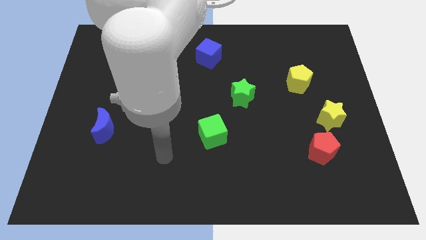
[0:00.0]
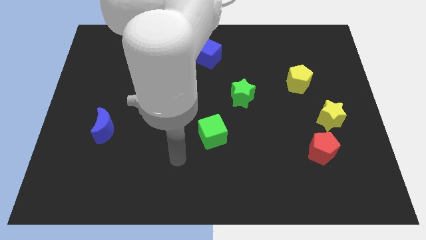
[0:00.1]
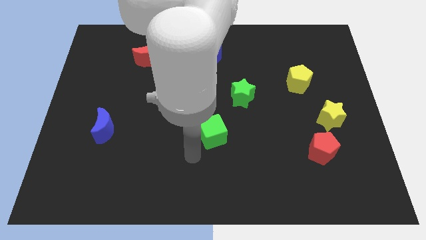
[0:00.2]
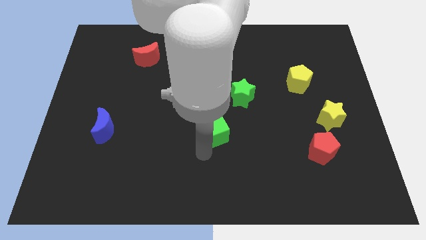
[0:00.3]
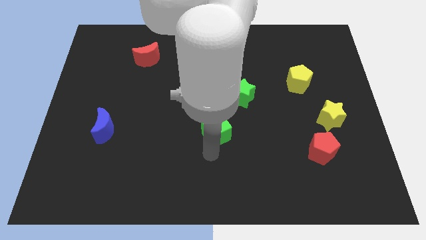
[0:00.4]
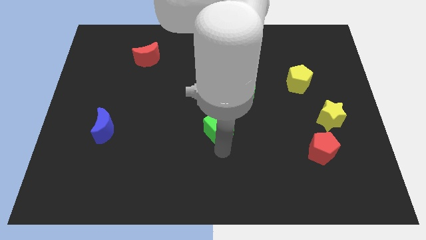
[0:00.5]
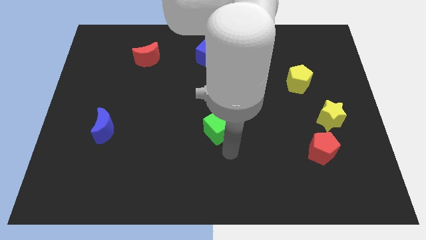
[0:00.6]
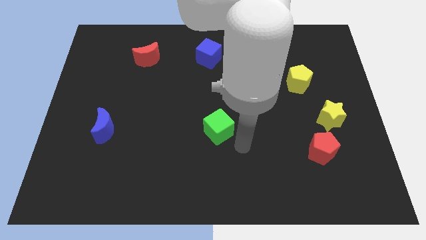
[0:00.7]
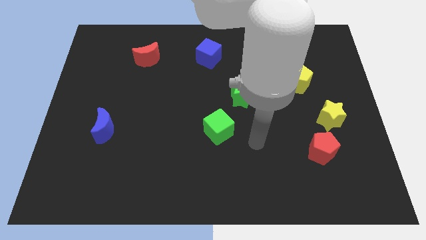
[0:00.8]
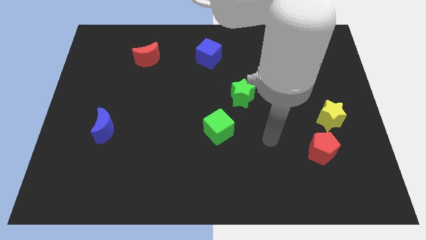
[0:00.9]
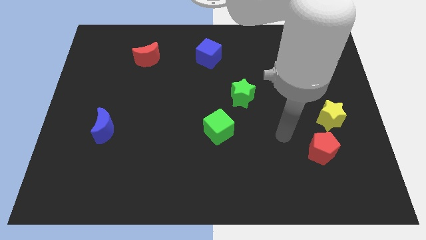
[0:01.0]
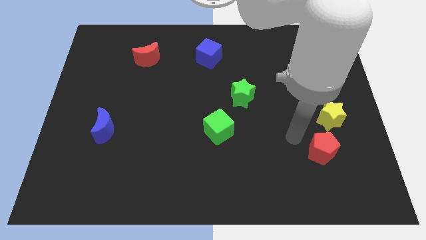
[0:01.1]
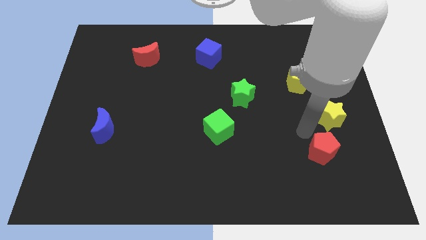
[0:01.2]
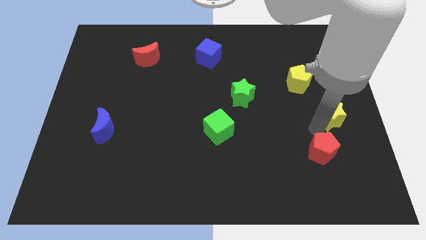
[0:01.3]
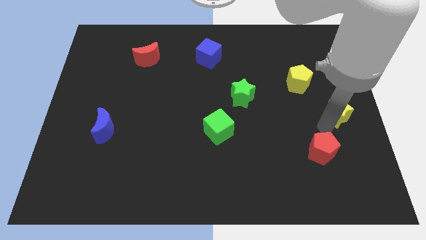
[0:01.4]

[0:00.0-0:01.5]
separate the red pentagon from the yellow star

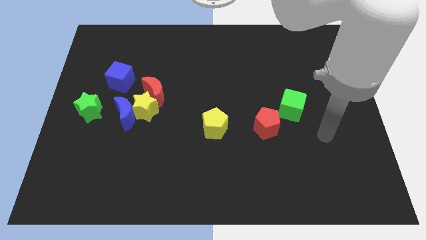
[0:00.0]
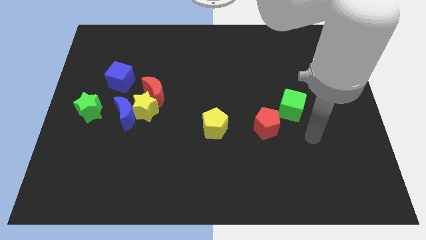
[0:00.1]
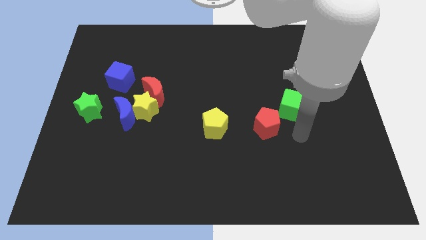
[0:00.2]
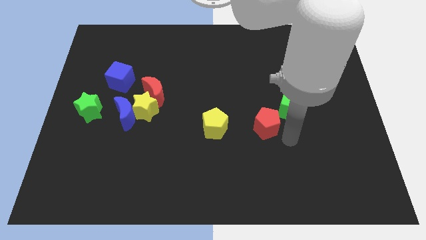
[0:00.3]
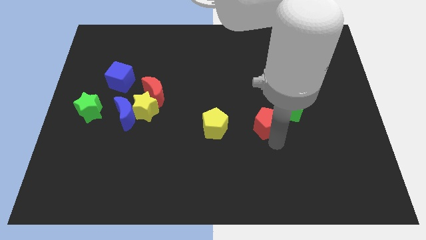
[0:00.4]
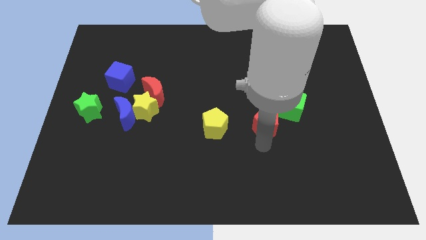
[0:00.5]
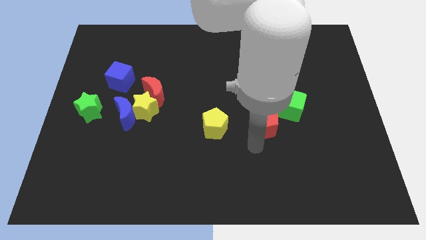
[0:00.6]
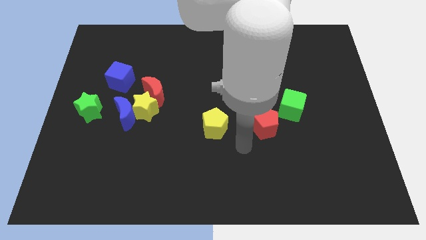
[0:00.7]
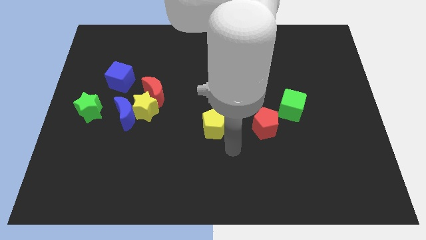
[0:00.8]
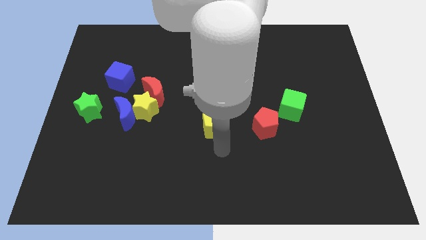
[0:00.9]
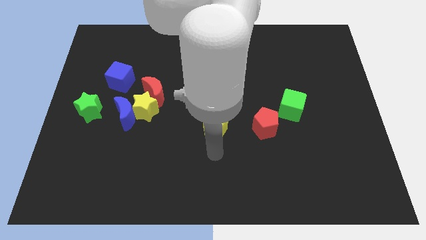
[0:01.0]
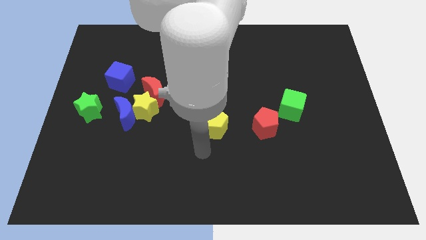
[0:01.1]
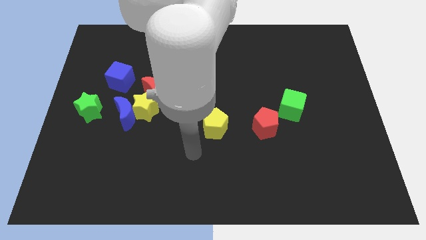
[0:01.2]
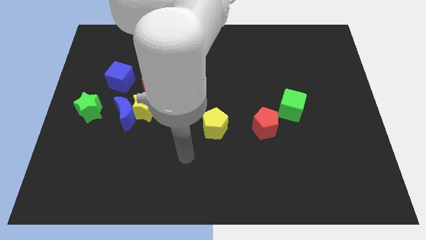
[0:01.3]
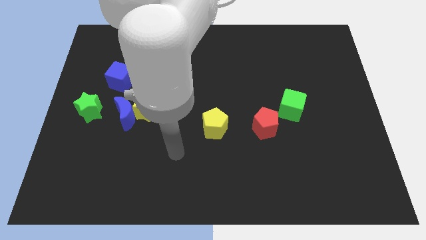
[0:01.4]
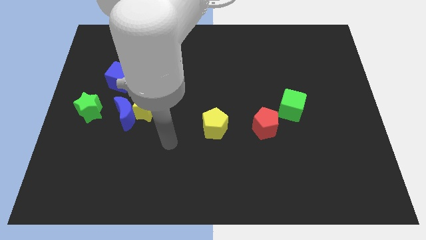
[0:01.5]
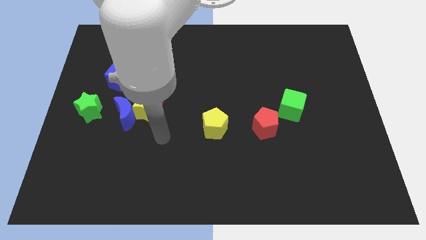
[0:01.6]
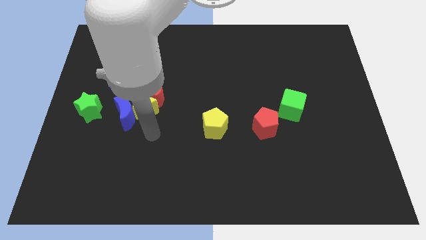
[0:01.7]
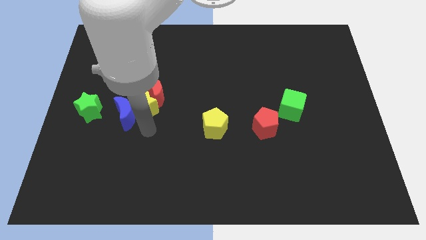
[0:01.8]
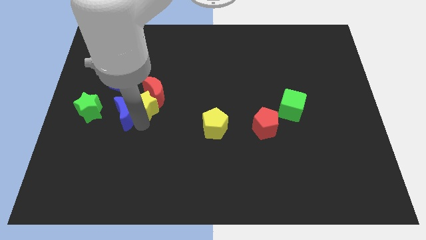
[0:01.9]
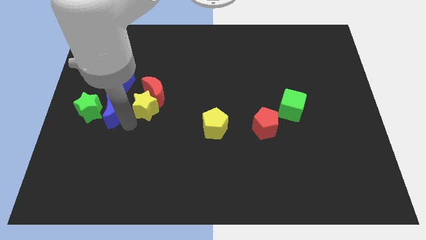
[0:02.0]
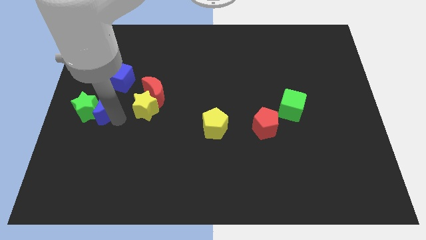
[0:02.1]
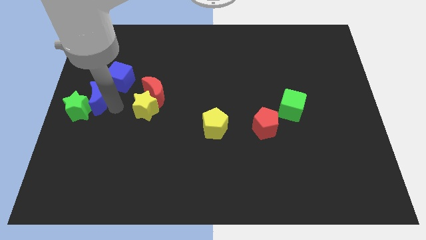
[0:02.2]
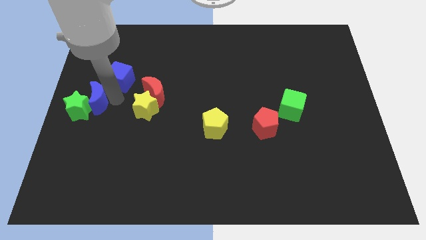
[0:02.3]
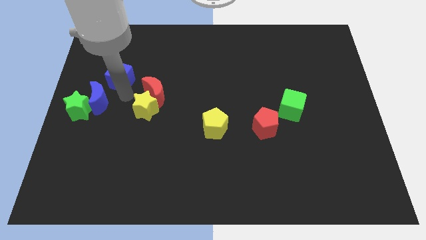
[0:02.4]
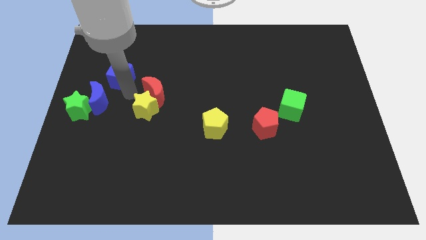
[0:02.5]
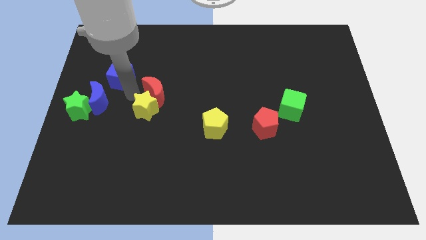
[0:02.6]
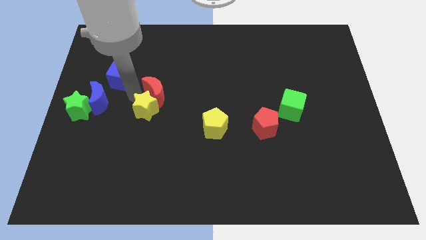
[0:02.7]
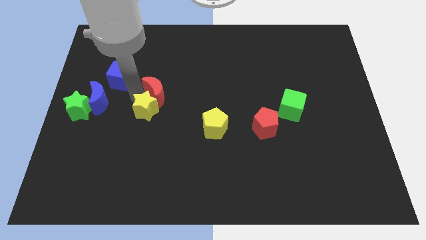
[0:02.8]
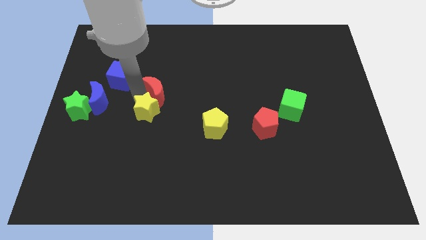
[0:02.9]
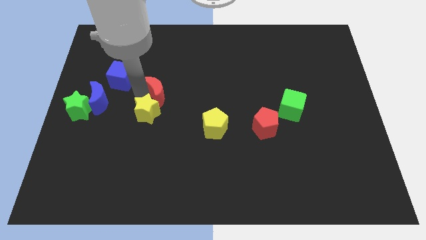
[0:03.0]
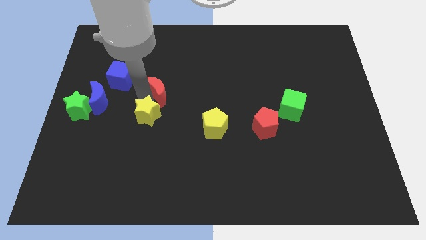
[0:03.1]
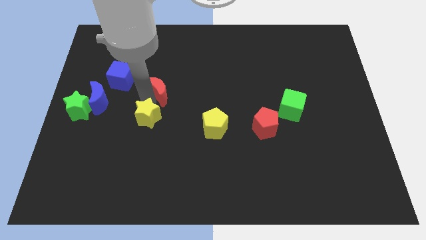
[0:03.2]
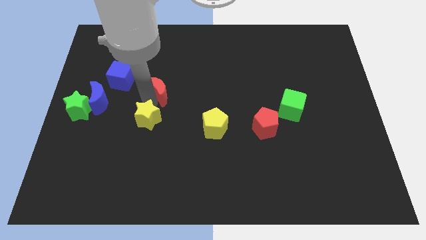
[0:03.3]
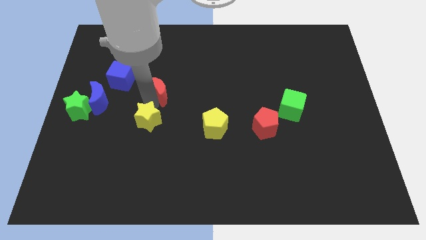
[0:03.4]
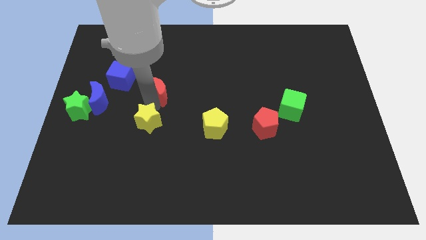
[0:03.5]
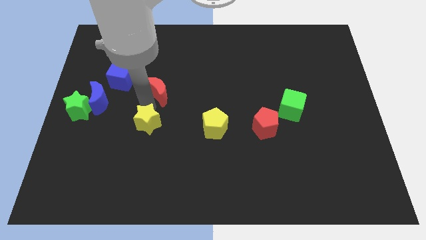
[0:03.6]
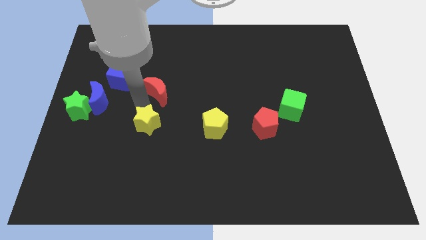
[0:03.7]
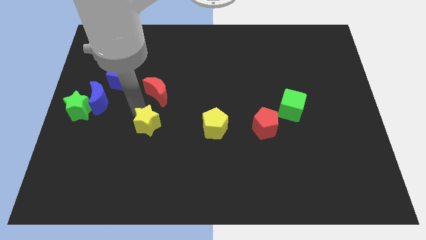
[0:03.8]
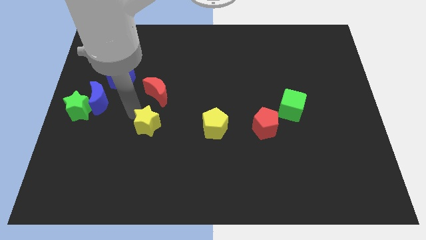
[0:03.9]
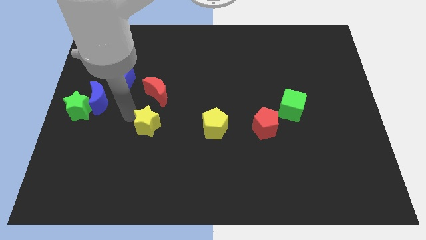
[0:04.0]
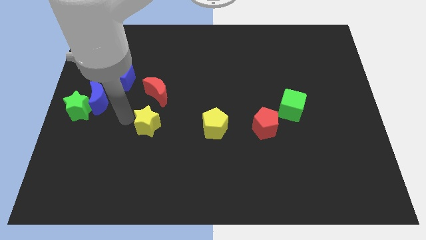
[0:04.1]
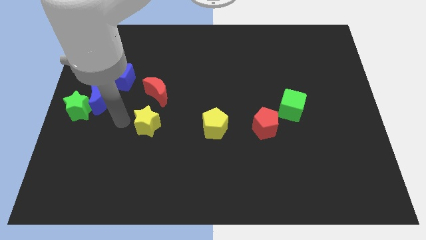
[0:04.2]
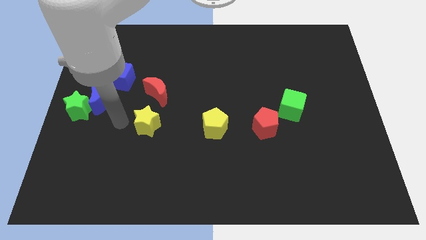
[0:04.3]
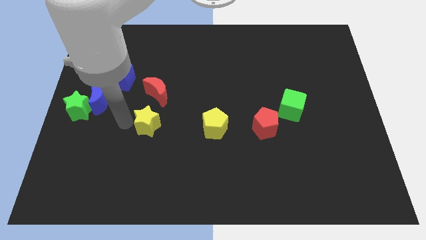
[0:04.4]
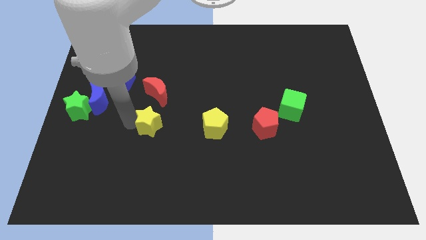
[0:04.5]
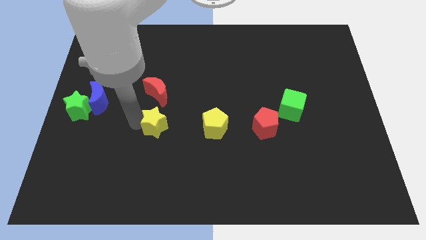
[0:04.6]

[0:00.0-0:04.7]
pull the yellow star apart from the blue moon and red moon

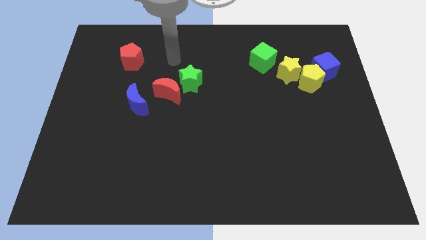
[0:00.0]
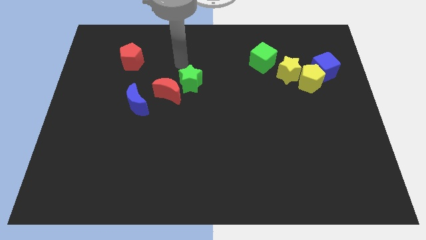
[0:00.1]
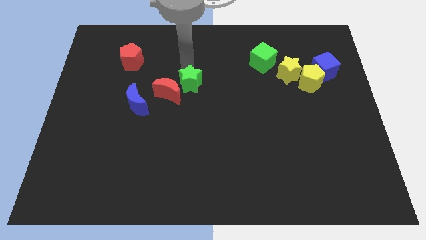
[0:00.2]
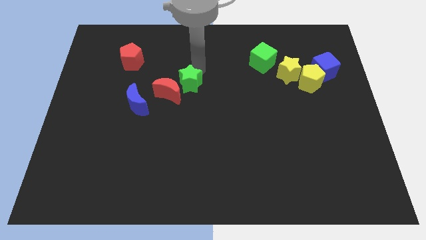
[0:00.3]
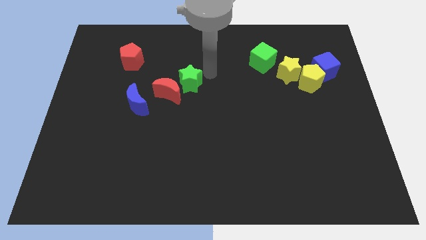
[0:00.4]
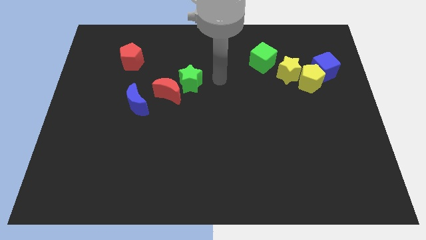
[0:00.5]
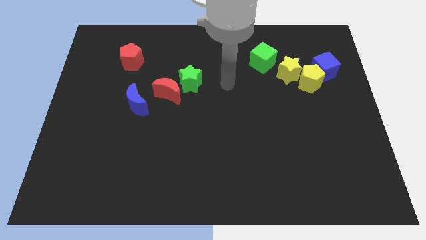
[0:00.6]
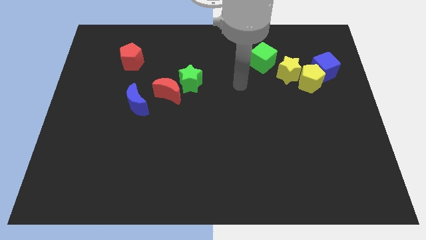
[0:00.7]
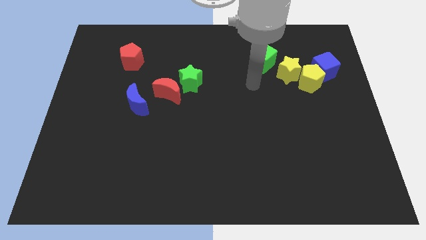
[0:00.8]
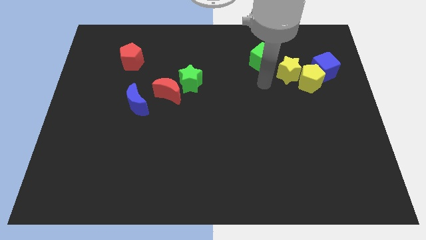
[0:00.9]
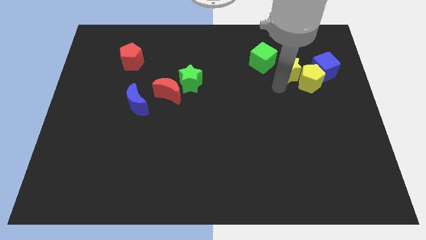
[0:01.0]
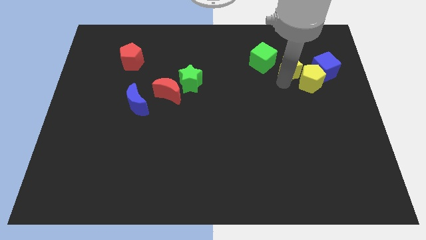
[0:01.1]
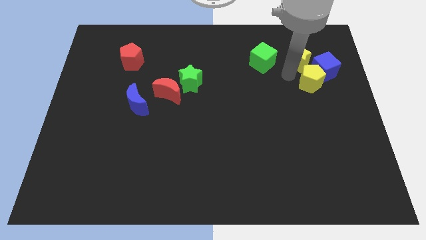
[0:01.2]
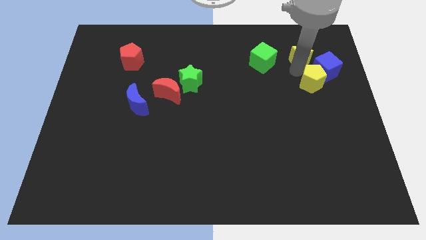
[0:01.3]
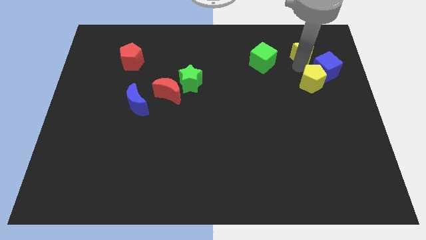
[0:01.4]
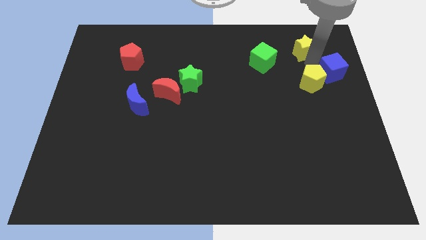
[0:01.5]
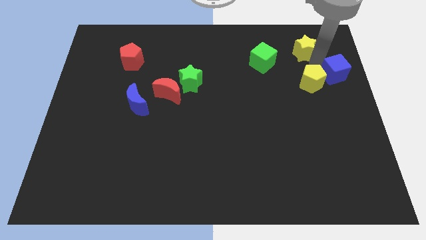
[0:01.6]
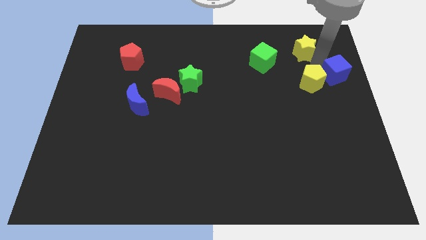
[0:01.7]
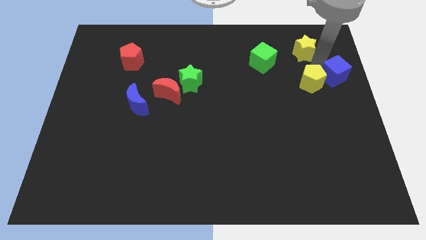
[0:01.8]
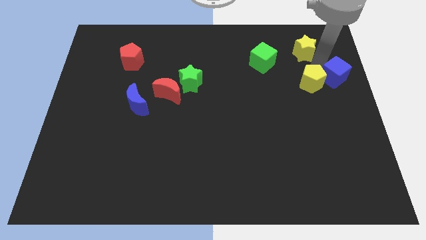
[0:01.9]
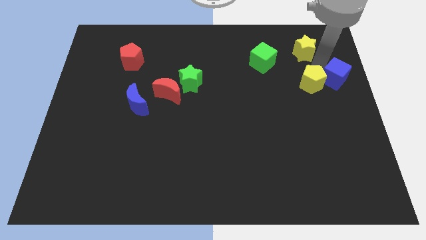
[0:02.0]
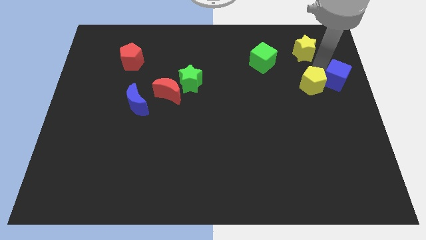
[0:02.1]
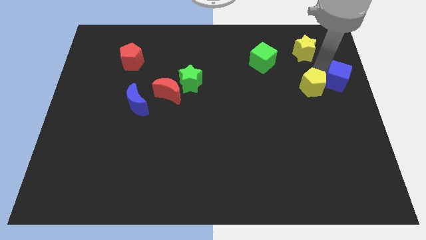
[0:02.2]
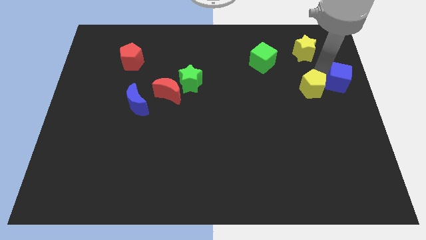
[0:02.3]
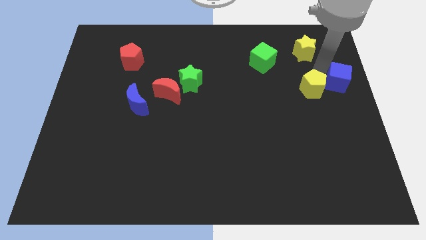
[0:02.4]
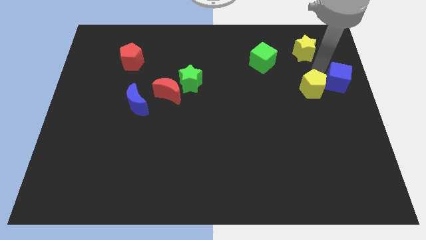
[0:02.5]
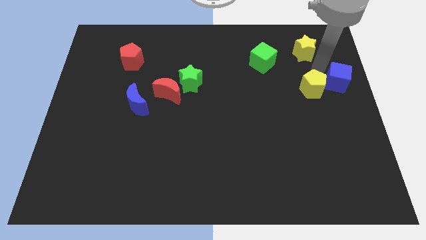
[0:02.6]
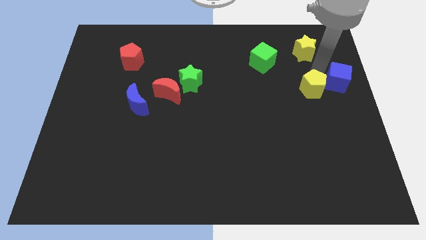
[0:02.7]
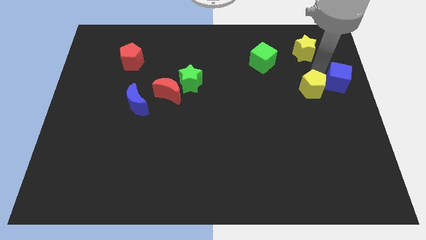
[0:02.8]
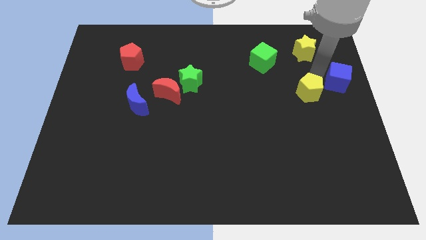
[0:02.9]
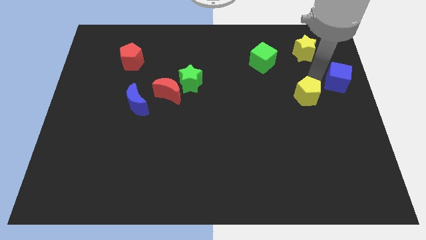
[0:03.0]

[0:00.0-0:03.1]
pull the yellow pentagon apart from the yellow star and blue cube
